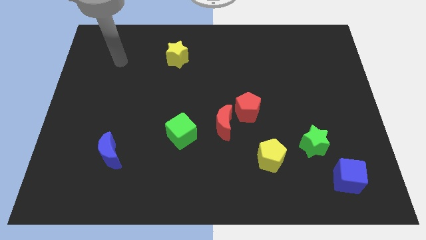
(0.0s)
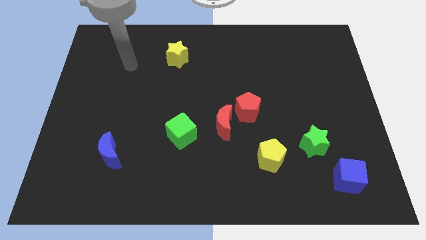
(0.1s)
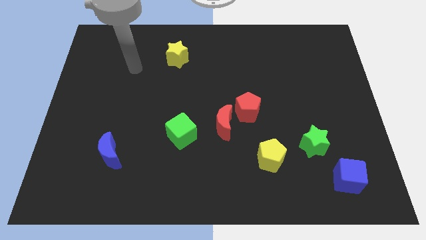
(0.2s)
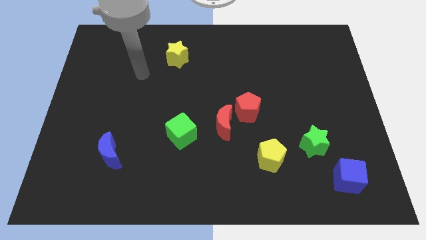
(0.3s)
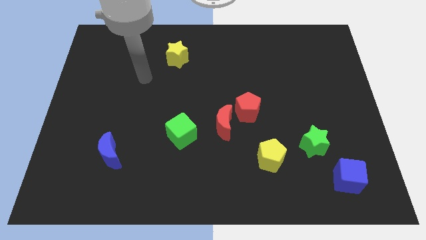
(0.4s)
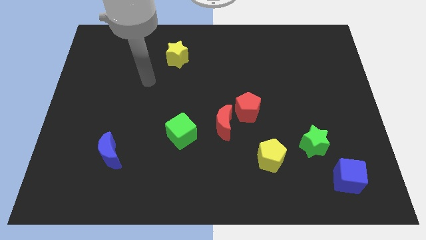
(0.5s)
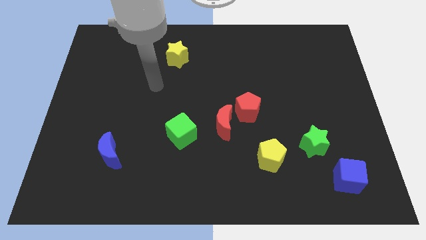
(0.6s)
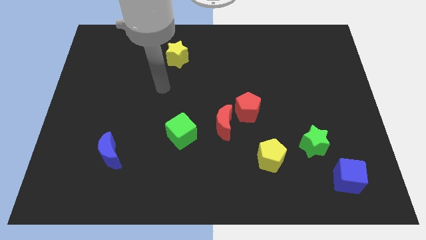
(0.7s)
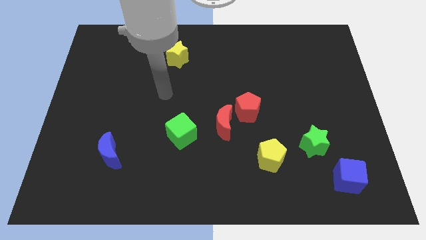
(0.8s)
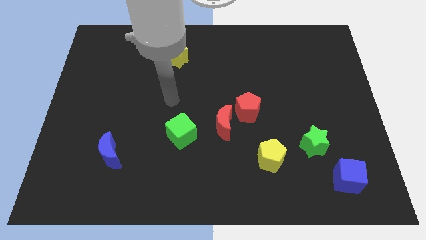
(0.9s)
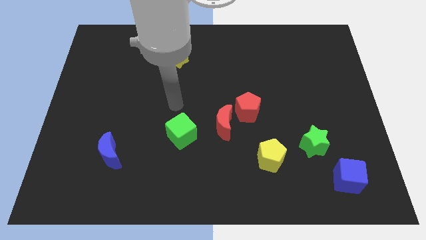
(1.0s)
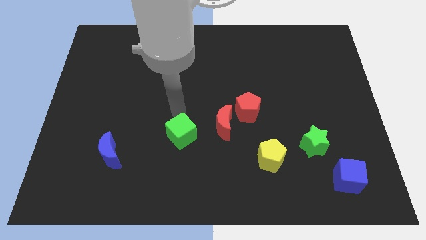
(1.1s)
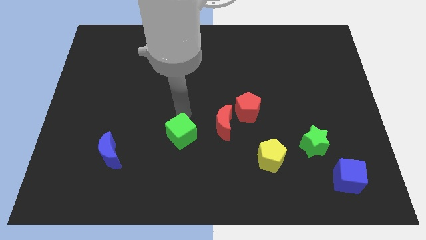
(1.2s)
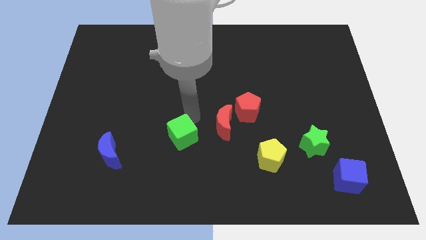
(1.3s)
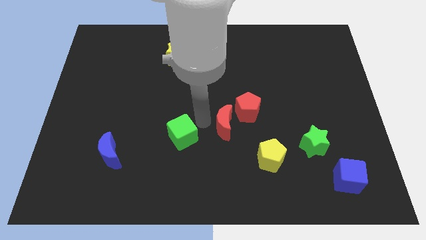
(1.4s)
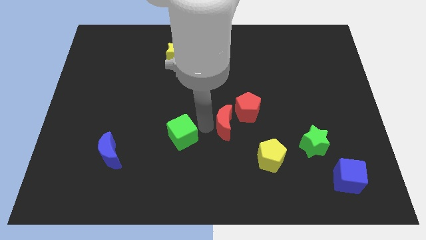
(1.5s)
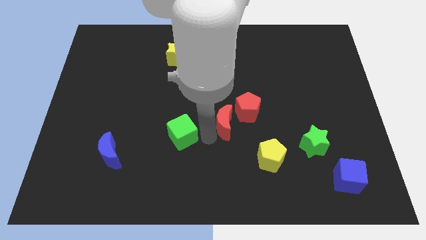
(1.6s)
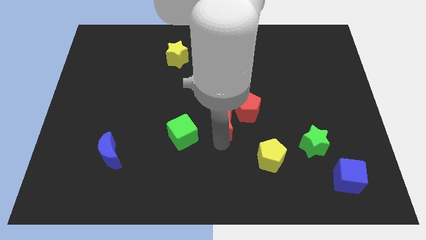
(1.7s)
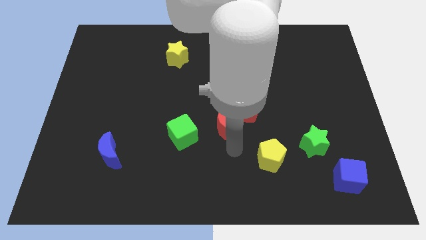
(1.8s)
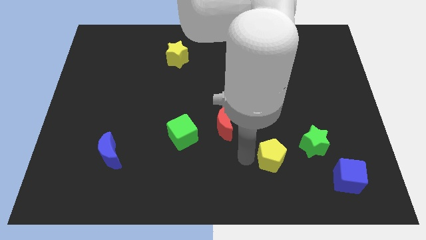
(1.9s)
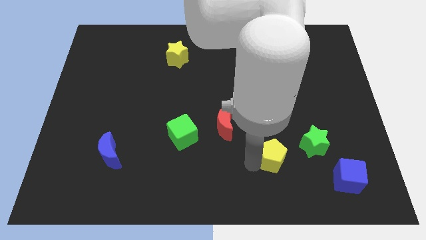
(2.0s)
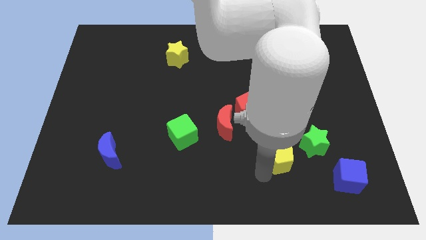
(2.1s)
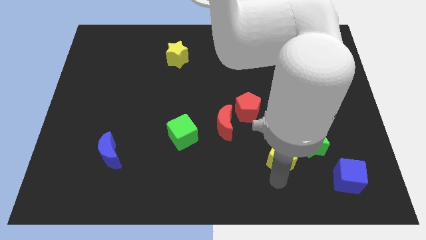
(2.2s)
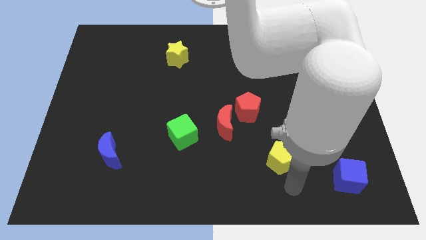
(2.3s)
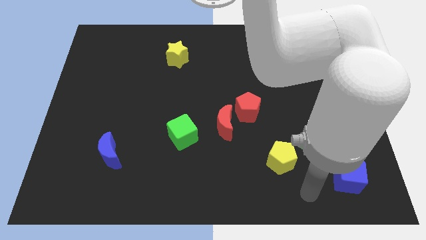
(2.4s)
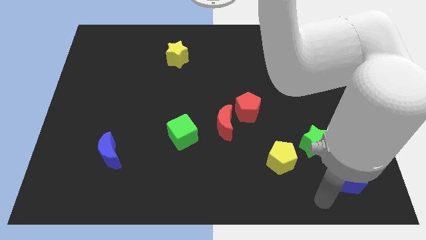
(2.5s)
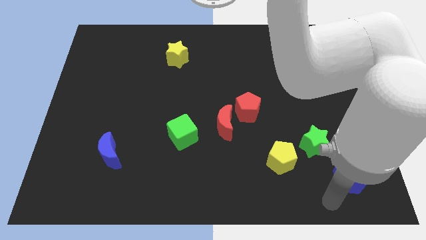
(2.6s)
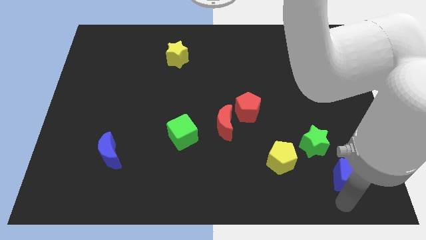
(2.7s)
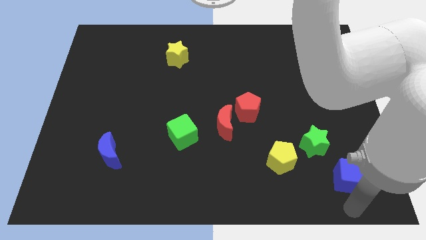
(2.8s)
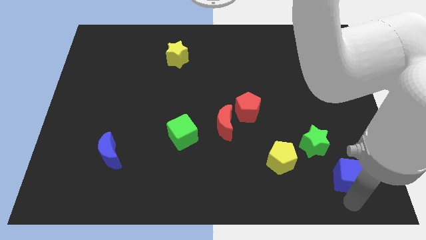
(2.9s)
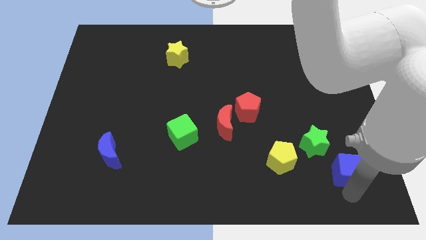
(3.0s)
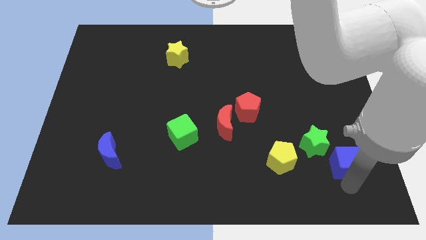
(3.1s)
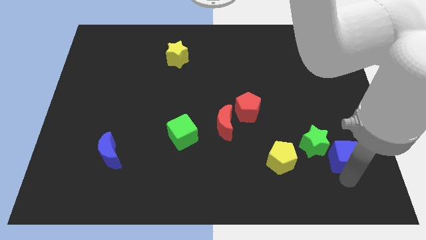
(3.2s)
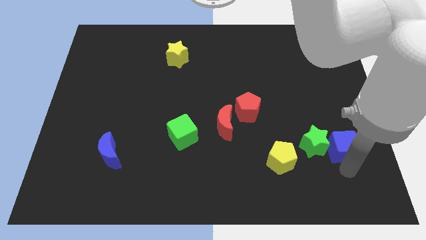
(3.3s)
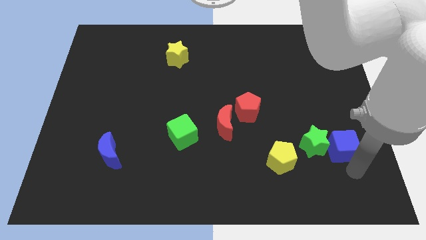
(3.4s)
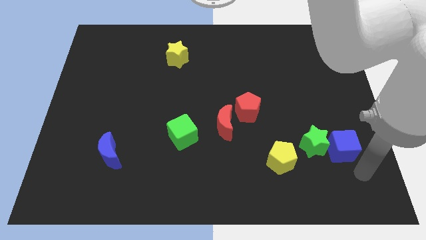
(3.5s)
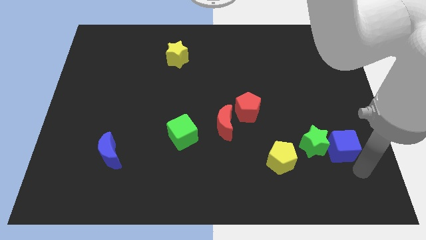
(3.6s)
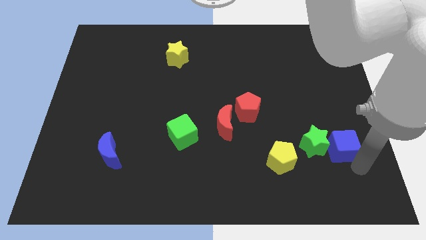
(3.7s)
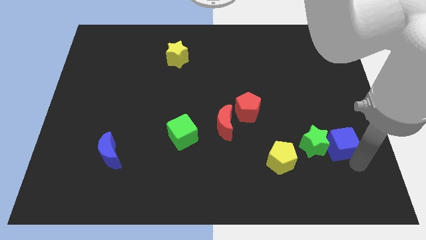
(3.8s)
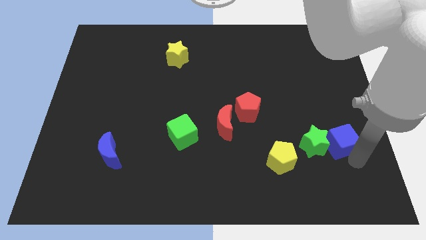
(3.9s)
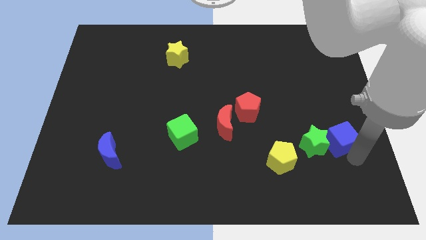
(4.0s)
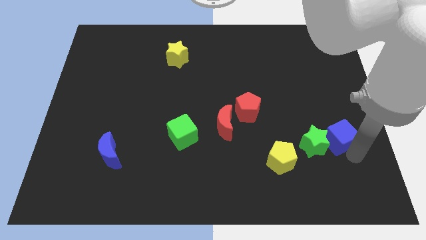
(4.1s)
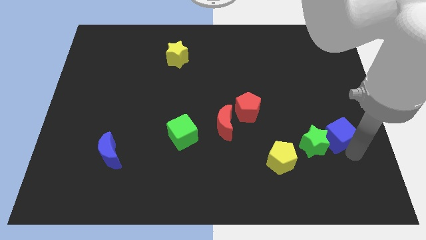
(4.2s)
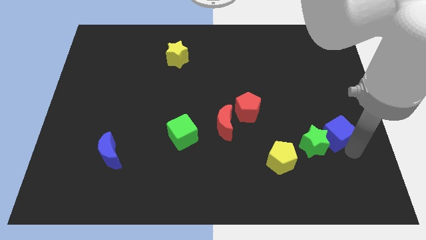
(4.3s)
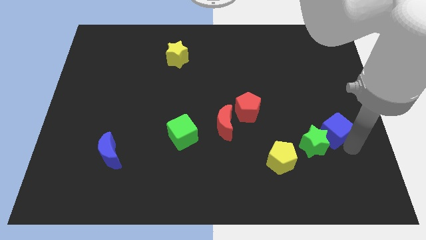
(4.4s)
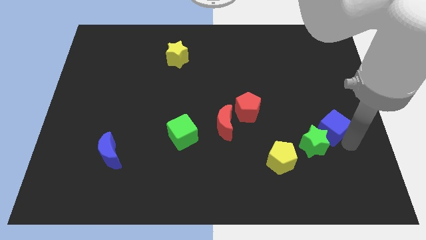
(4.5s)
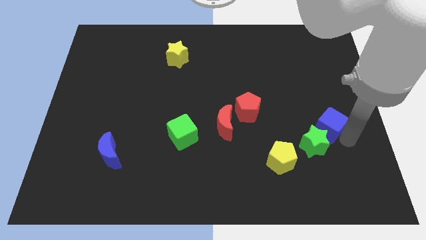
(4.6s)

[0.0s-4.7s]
slightly move the blue cube diagonally up and left

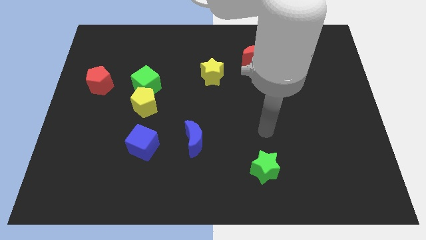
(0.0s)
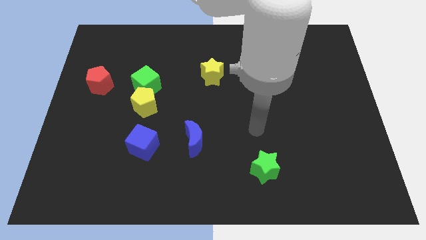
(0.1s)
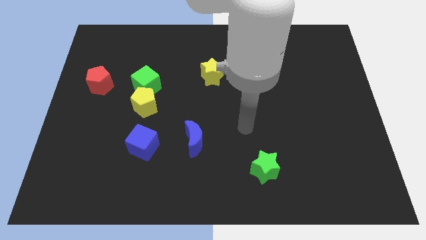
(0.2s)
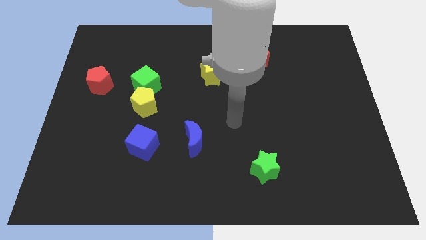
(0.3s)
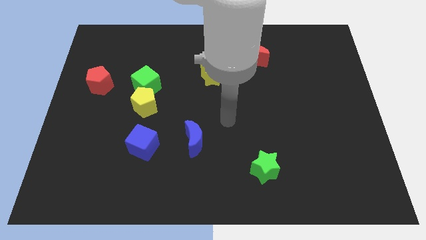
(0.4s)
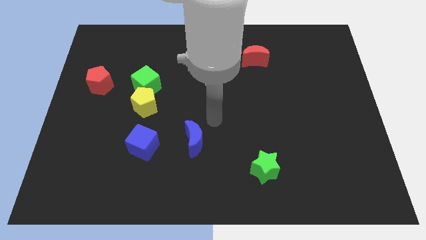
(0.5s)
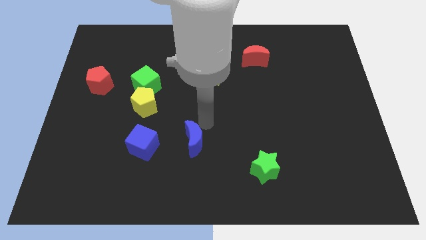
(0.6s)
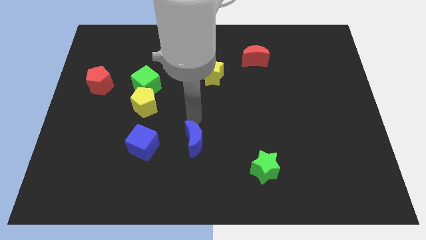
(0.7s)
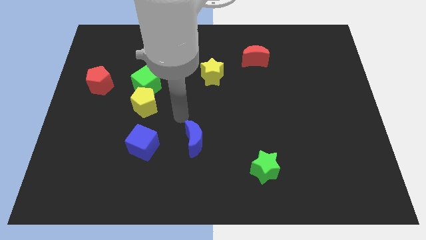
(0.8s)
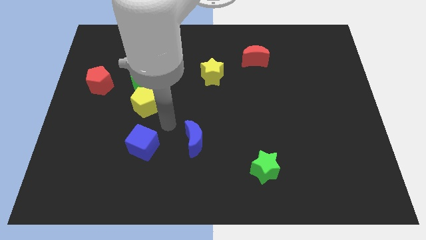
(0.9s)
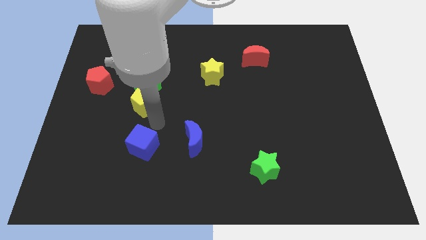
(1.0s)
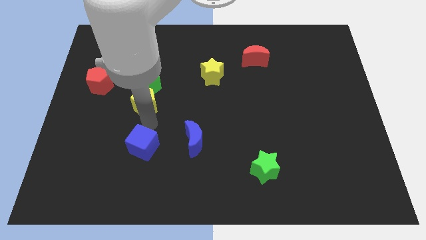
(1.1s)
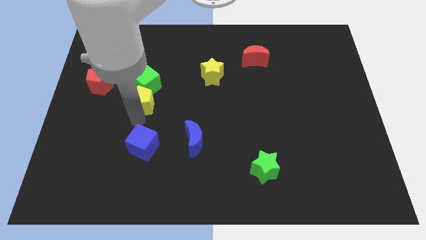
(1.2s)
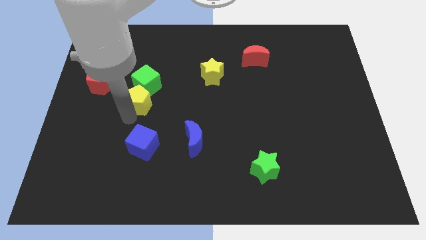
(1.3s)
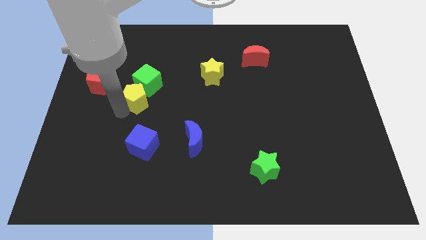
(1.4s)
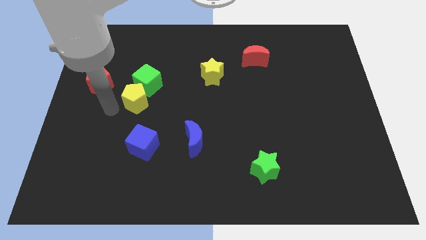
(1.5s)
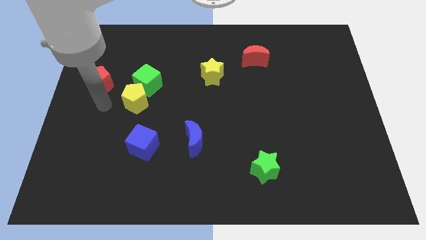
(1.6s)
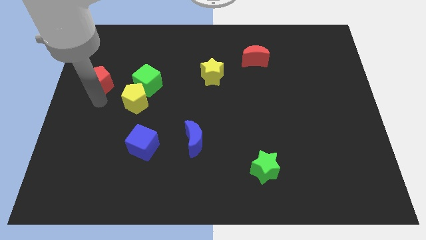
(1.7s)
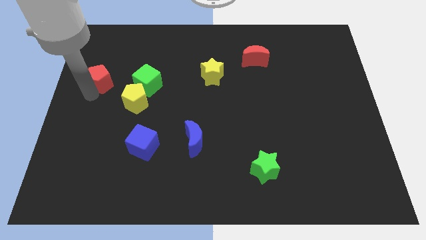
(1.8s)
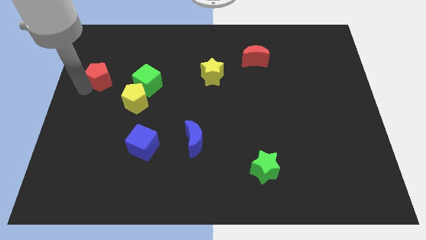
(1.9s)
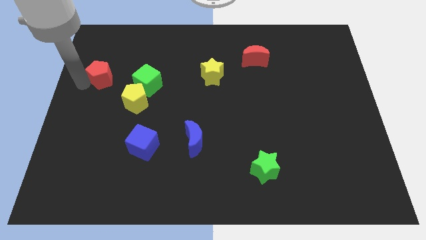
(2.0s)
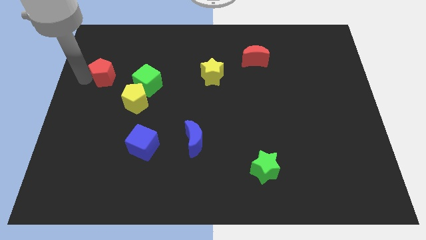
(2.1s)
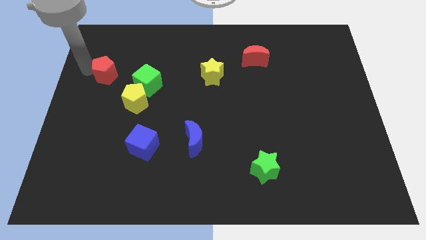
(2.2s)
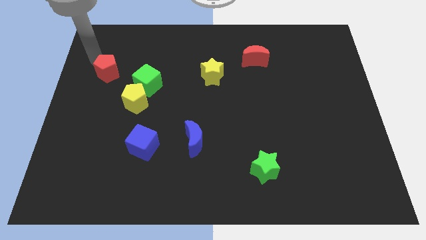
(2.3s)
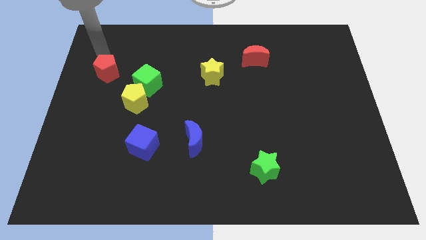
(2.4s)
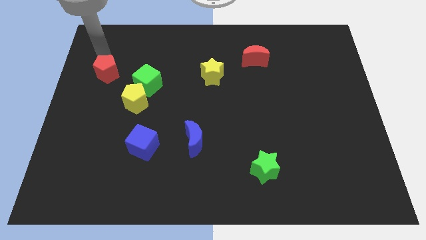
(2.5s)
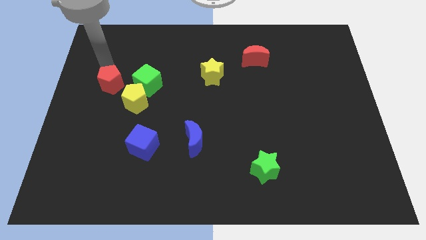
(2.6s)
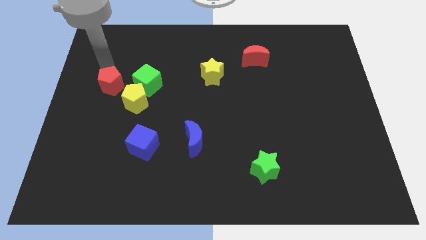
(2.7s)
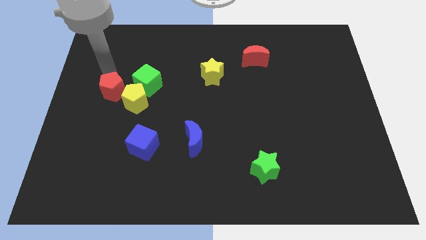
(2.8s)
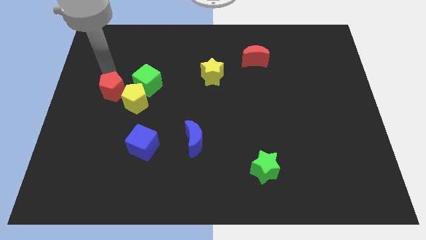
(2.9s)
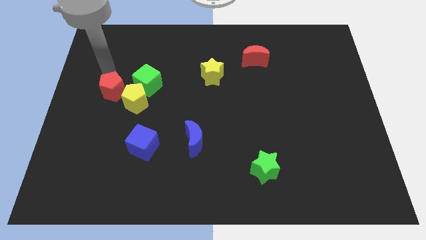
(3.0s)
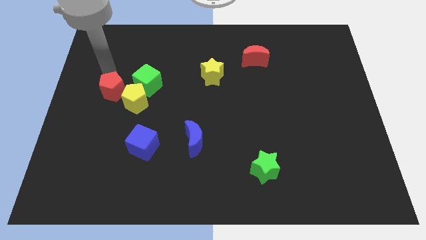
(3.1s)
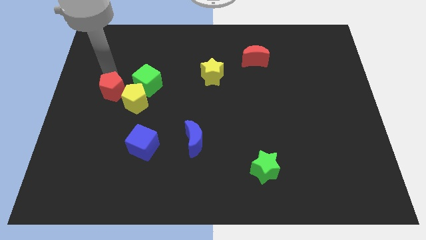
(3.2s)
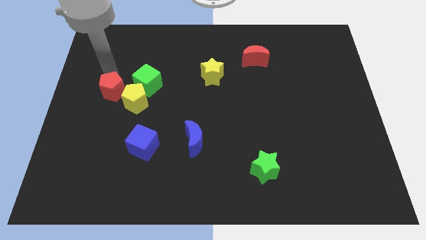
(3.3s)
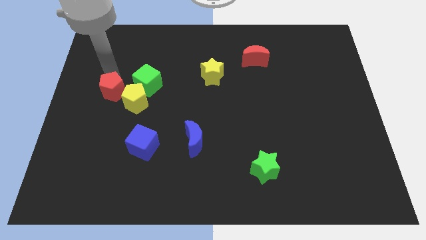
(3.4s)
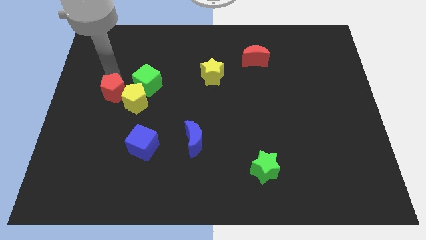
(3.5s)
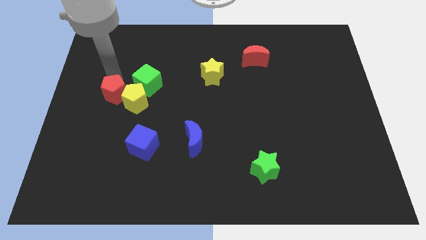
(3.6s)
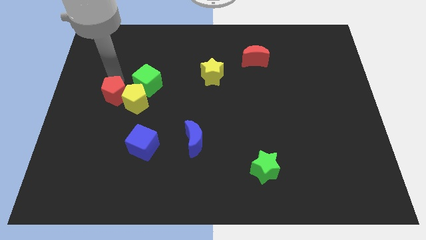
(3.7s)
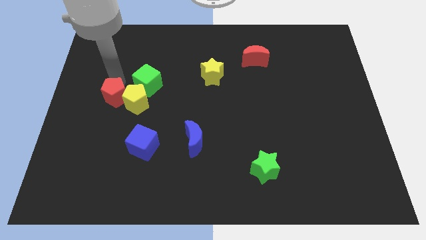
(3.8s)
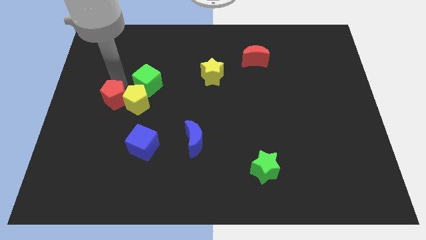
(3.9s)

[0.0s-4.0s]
push the red pentagon down and then to the right somewhat

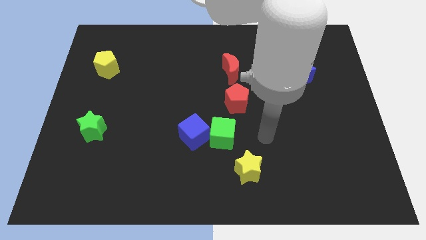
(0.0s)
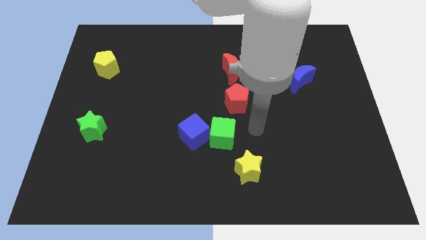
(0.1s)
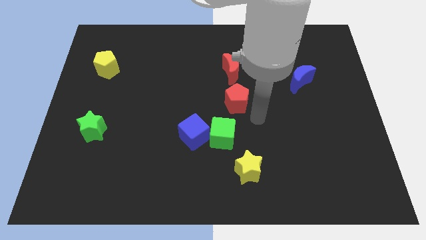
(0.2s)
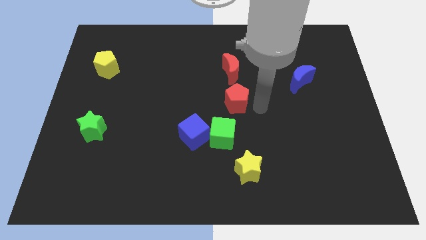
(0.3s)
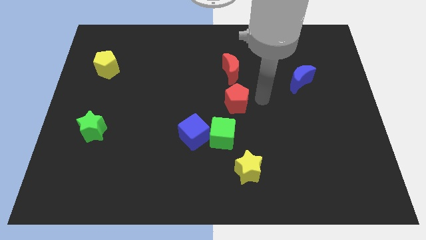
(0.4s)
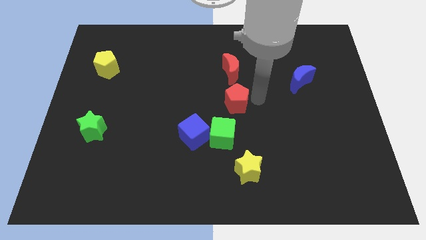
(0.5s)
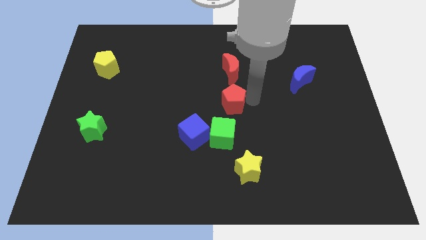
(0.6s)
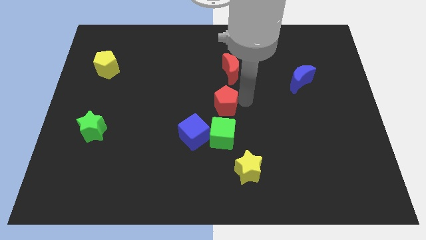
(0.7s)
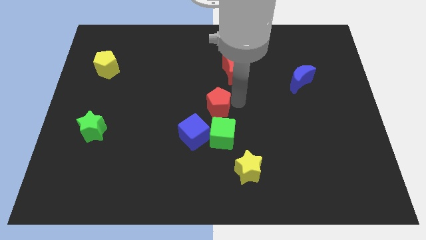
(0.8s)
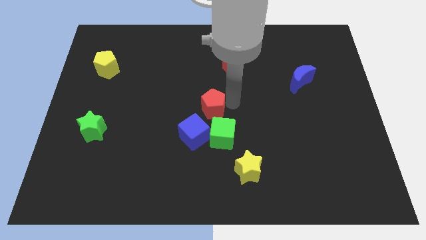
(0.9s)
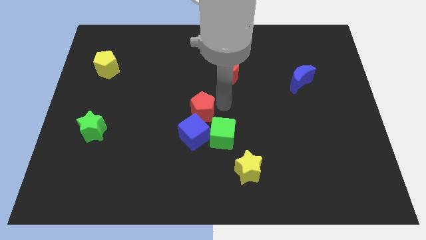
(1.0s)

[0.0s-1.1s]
slide the red pentagon diagonally down and left slightly
